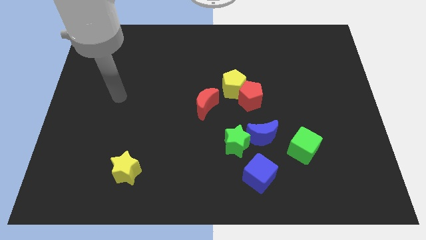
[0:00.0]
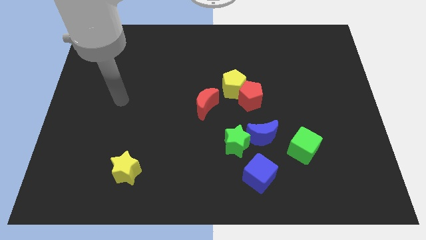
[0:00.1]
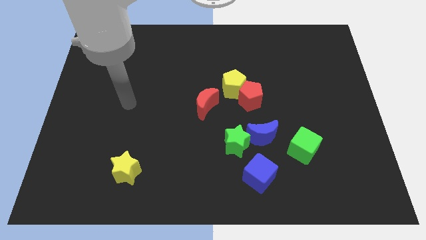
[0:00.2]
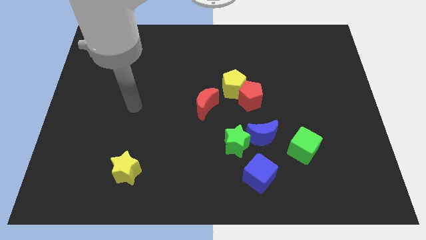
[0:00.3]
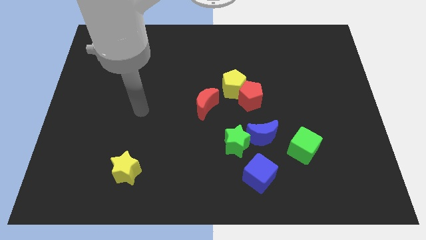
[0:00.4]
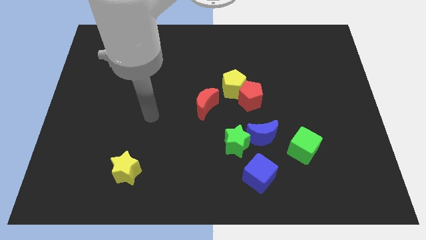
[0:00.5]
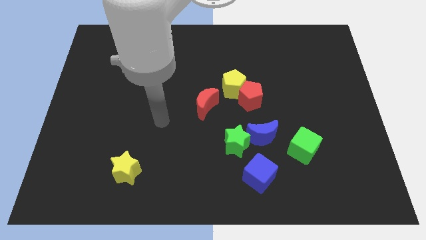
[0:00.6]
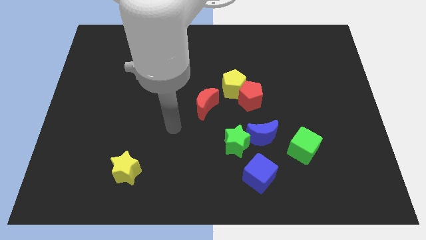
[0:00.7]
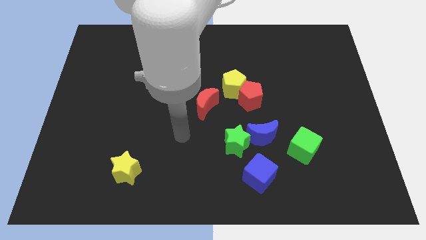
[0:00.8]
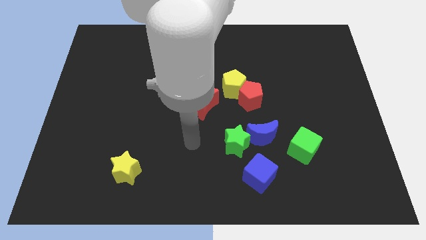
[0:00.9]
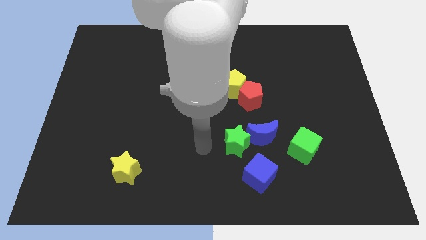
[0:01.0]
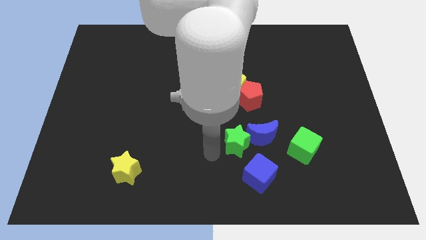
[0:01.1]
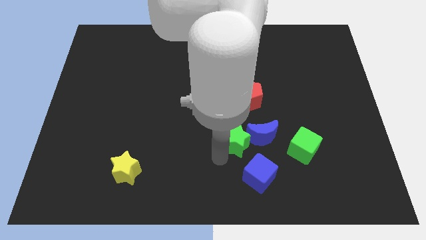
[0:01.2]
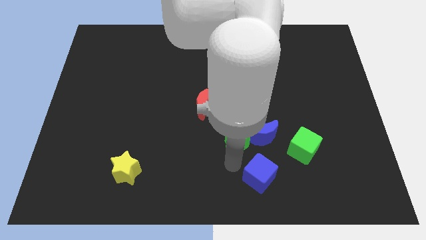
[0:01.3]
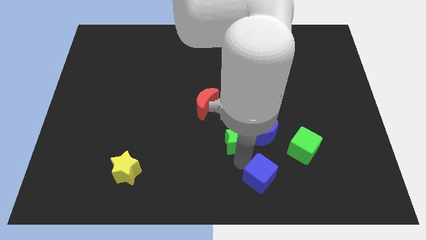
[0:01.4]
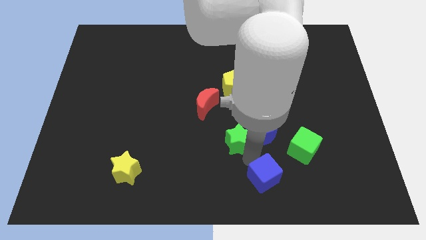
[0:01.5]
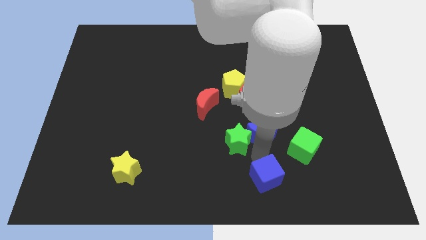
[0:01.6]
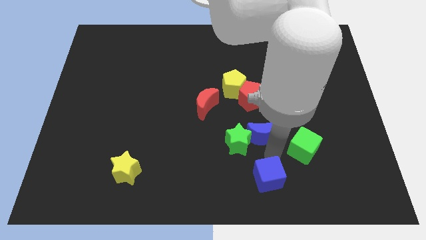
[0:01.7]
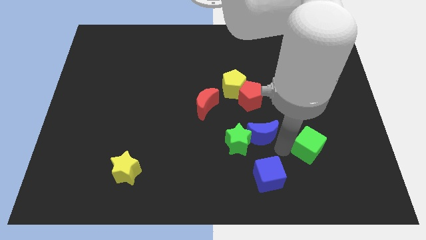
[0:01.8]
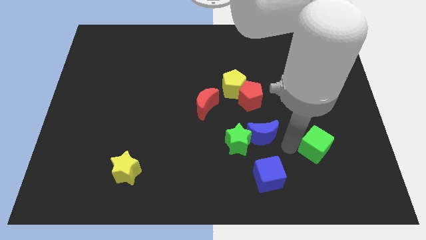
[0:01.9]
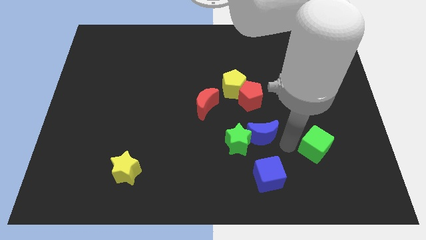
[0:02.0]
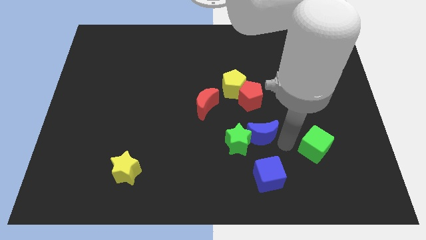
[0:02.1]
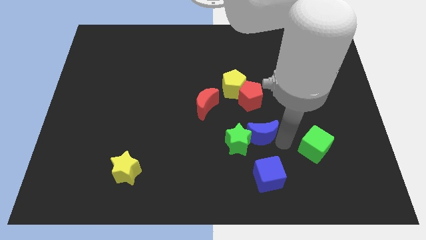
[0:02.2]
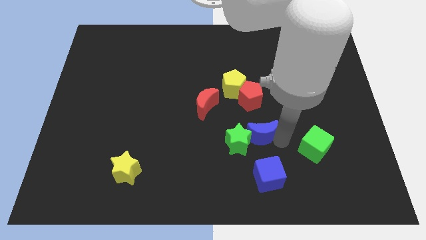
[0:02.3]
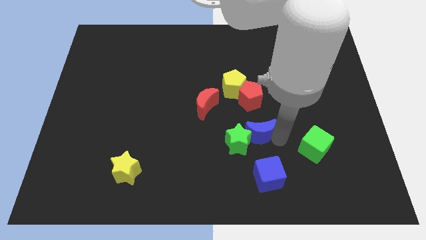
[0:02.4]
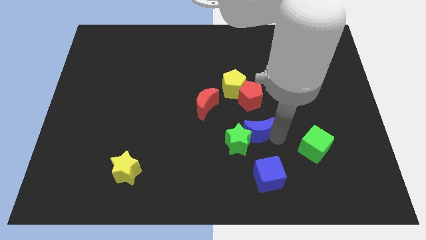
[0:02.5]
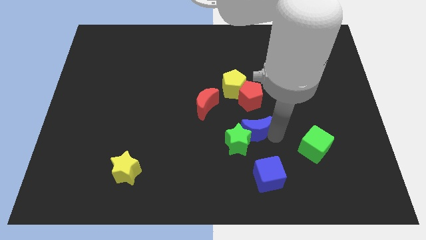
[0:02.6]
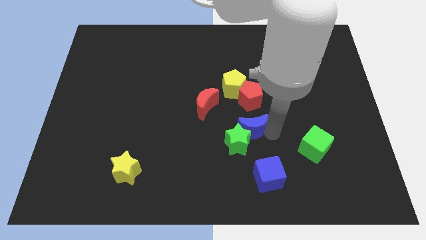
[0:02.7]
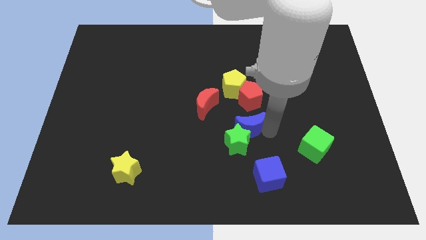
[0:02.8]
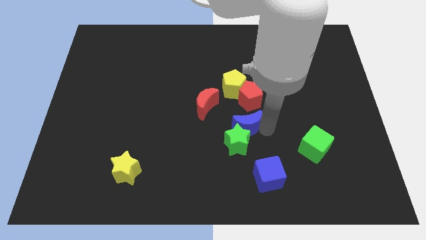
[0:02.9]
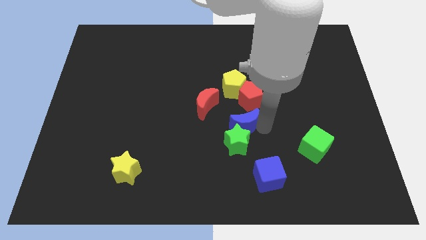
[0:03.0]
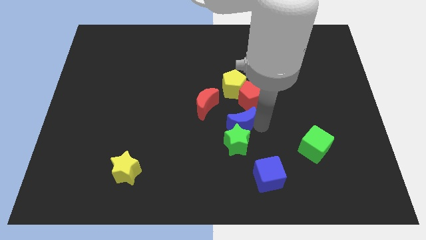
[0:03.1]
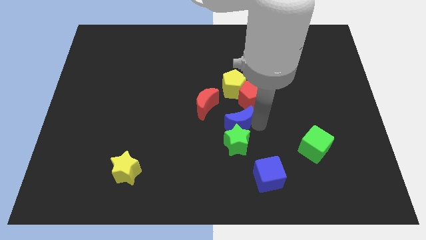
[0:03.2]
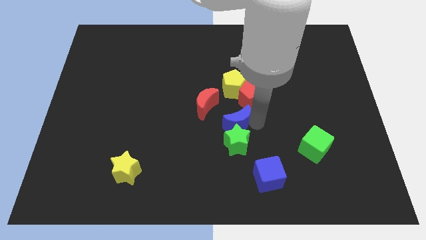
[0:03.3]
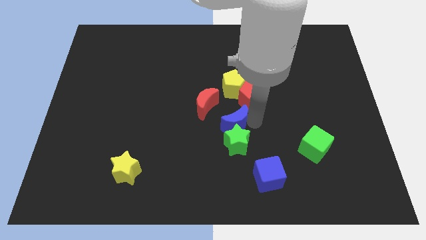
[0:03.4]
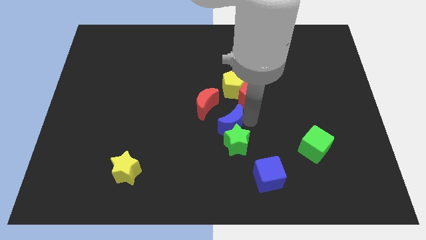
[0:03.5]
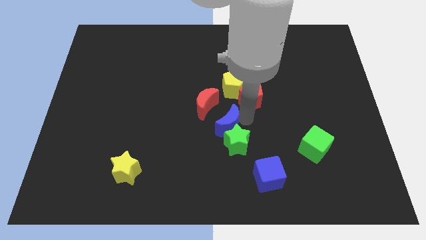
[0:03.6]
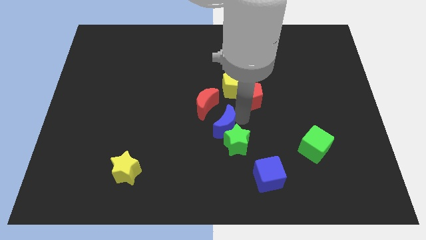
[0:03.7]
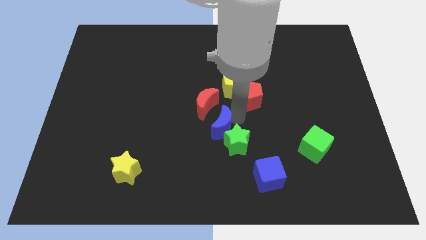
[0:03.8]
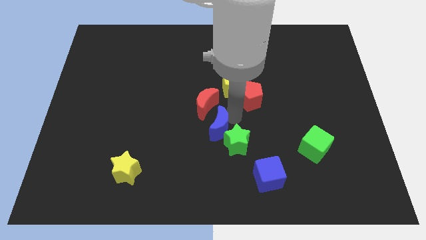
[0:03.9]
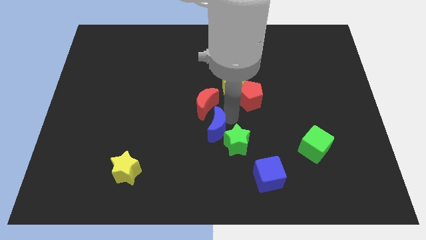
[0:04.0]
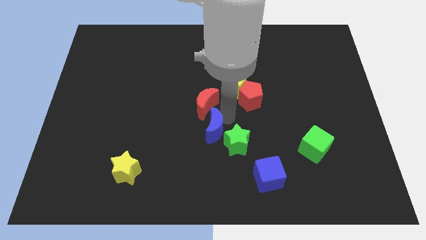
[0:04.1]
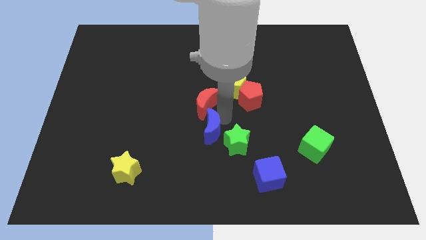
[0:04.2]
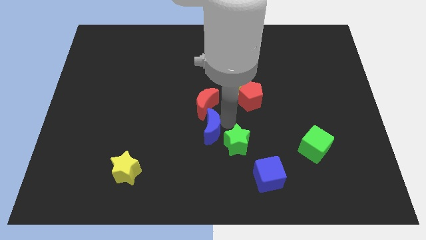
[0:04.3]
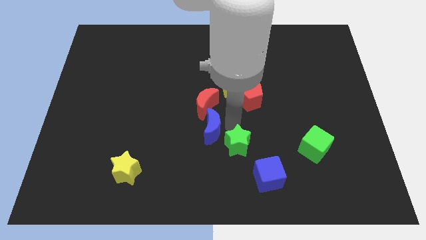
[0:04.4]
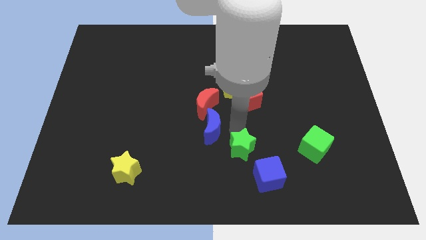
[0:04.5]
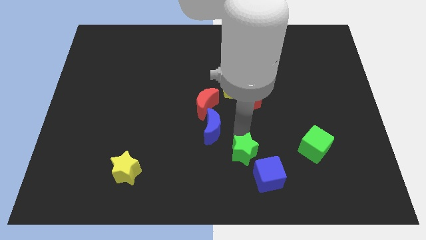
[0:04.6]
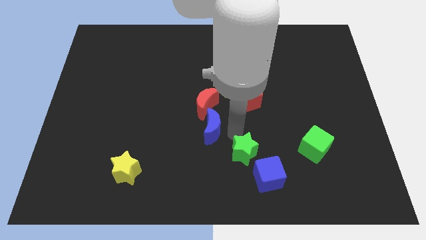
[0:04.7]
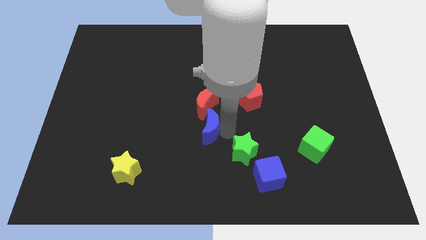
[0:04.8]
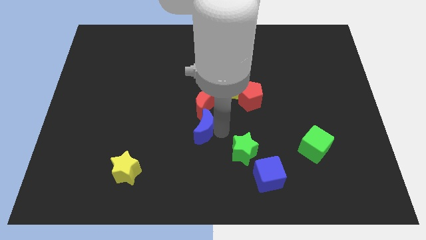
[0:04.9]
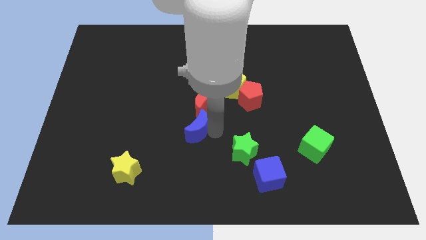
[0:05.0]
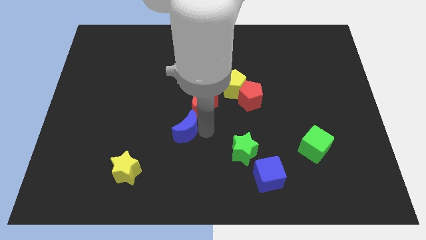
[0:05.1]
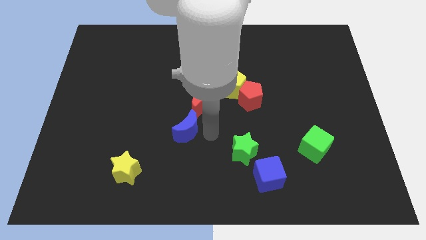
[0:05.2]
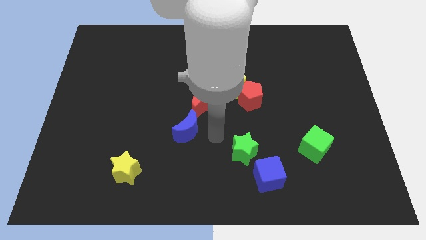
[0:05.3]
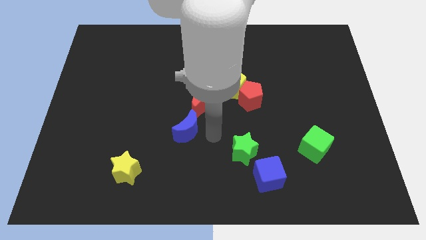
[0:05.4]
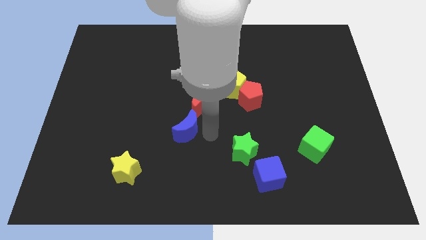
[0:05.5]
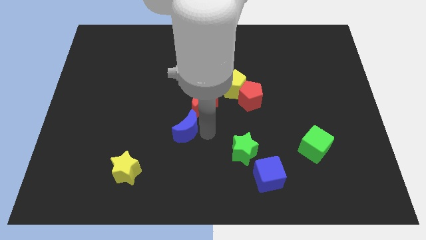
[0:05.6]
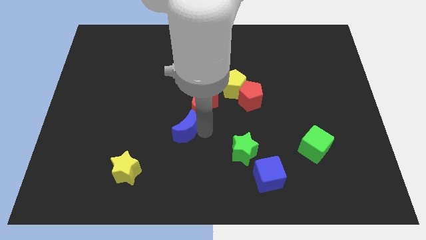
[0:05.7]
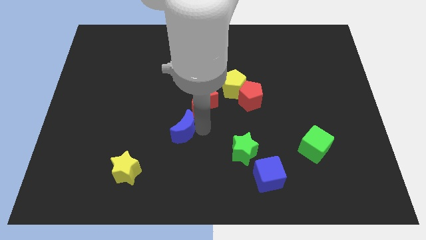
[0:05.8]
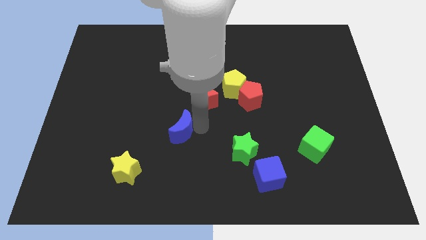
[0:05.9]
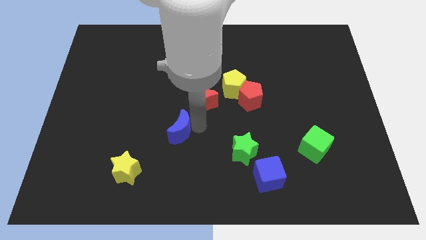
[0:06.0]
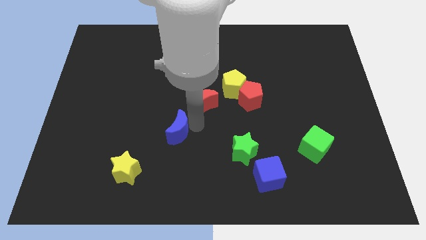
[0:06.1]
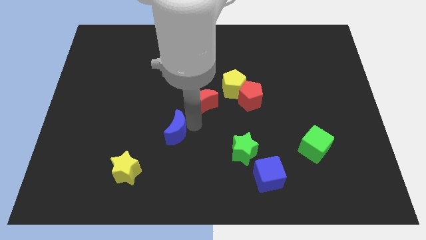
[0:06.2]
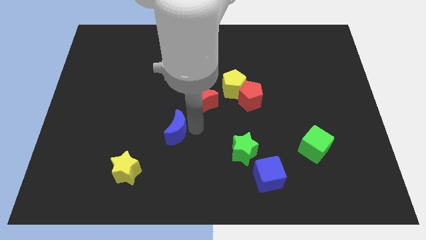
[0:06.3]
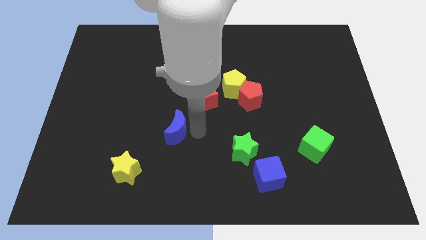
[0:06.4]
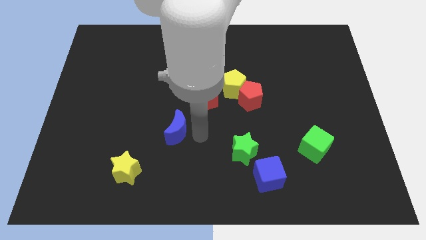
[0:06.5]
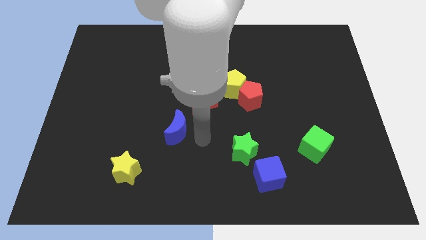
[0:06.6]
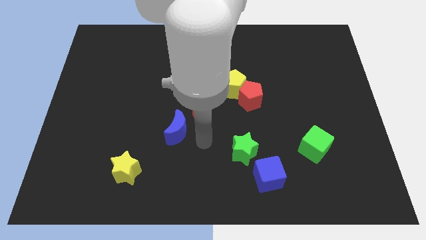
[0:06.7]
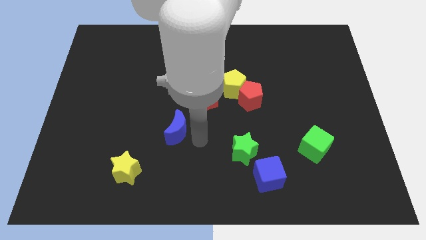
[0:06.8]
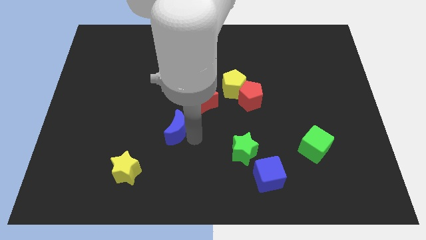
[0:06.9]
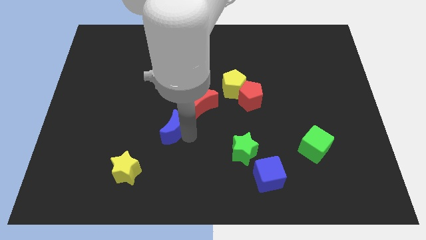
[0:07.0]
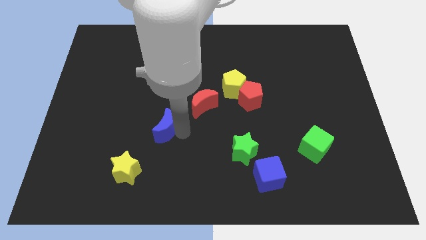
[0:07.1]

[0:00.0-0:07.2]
move the blue moon to the left

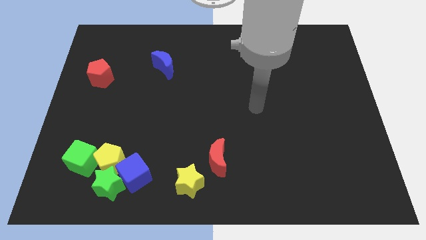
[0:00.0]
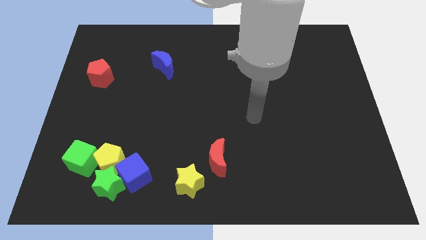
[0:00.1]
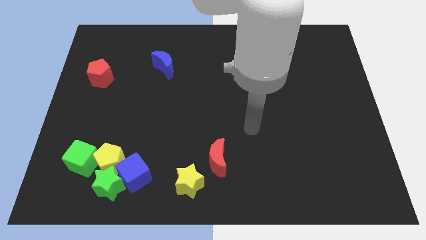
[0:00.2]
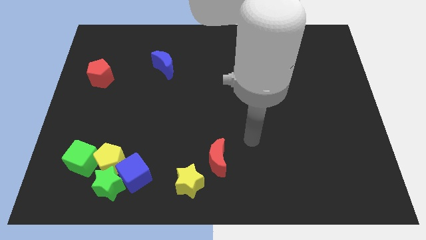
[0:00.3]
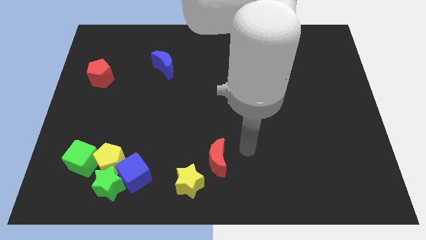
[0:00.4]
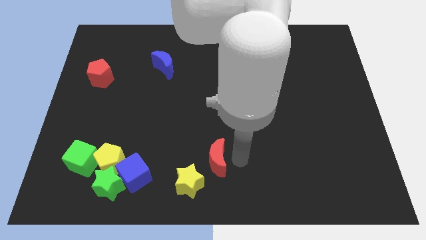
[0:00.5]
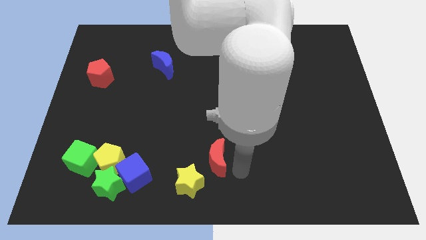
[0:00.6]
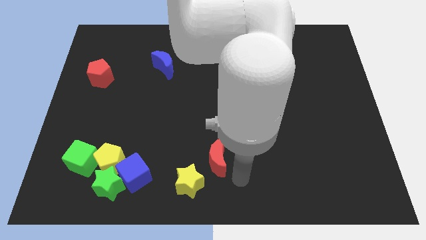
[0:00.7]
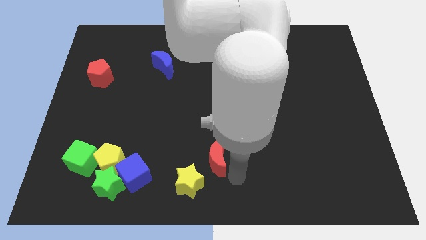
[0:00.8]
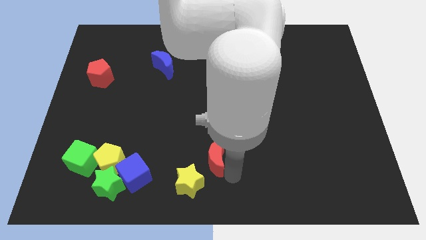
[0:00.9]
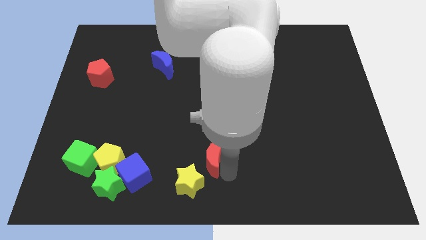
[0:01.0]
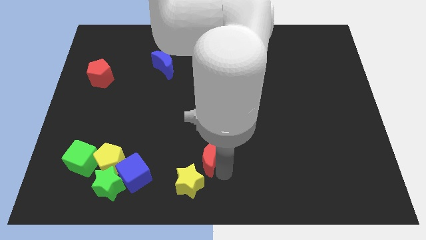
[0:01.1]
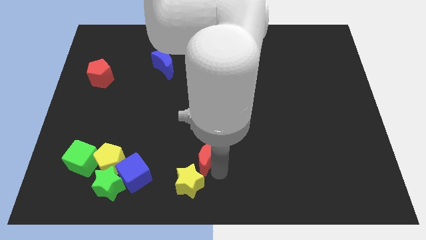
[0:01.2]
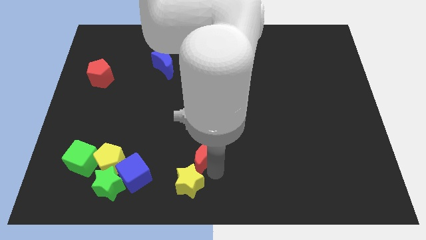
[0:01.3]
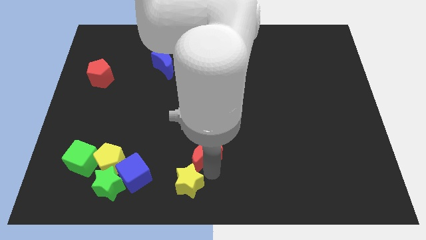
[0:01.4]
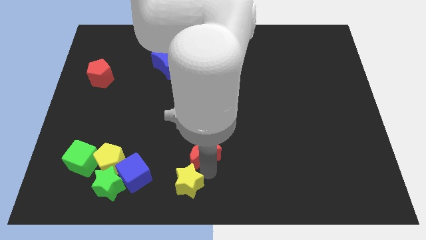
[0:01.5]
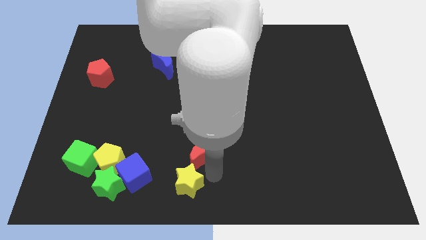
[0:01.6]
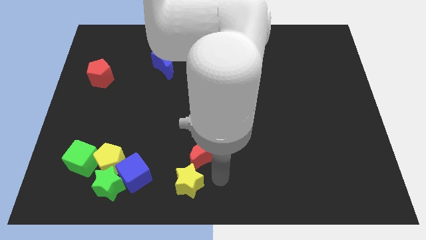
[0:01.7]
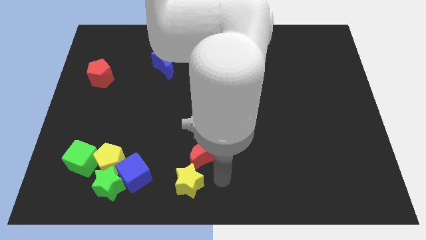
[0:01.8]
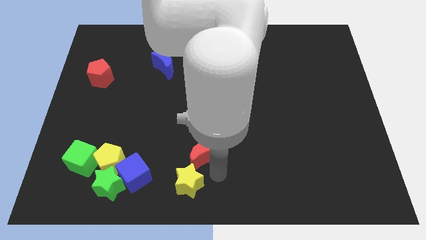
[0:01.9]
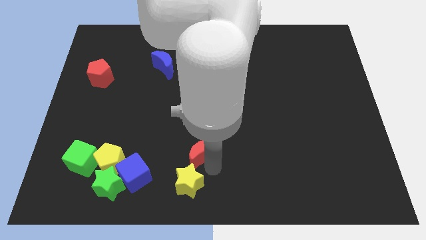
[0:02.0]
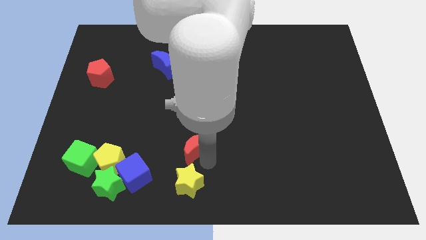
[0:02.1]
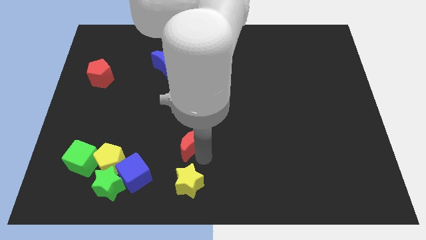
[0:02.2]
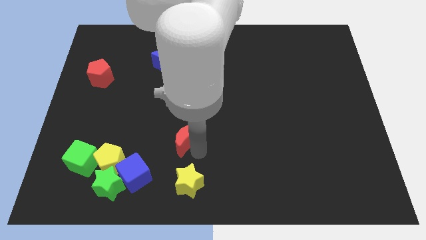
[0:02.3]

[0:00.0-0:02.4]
slightly slide the red moon upwards and to the left diagonally
